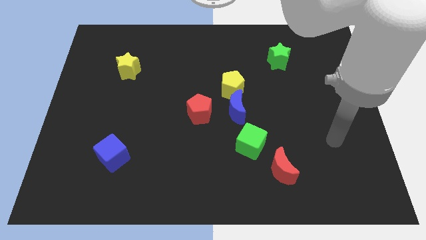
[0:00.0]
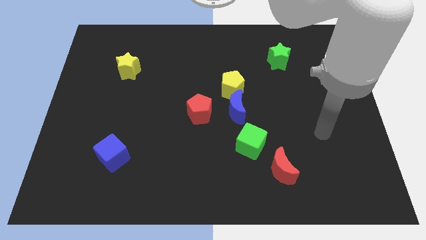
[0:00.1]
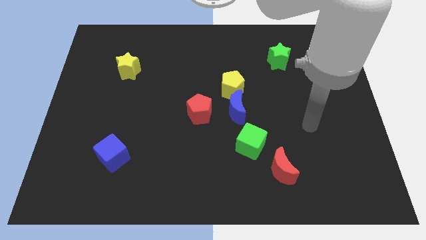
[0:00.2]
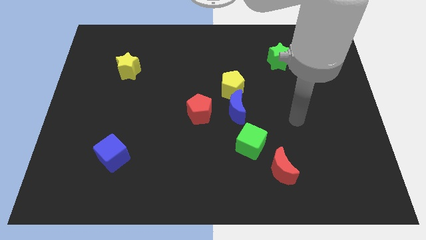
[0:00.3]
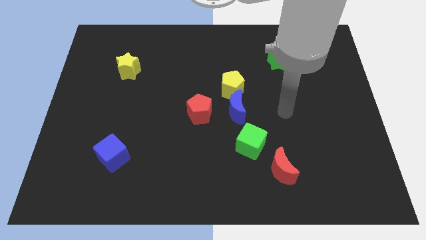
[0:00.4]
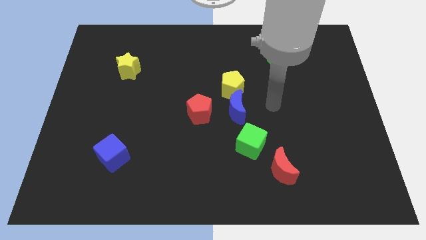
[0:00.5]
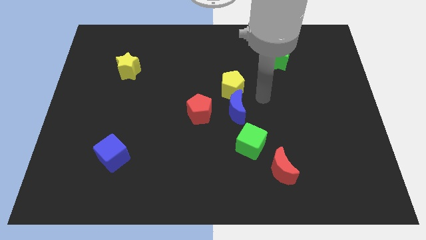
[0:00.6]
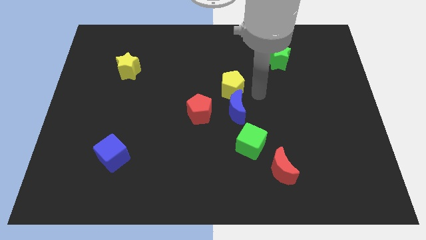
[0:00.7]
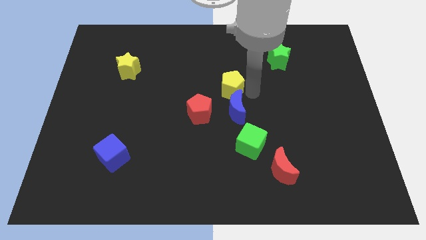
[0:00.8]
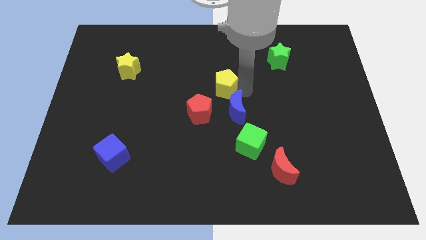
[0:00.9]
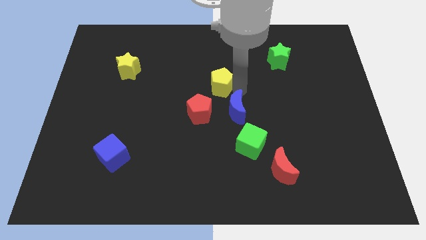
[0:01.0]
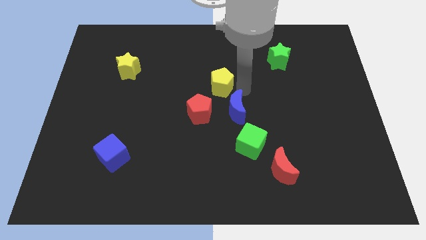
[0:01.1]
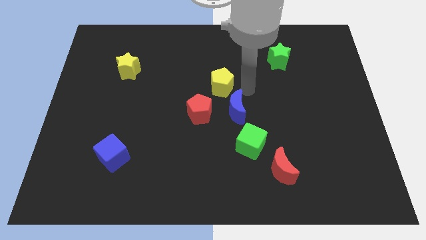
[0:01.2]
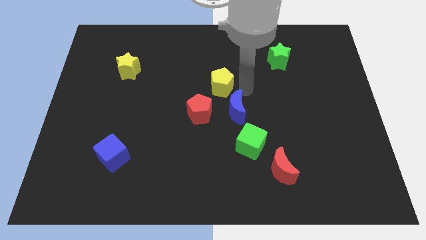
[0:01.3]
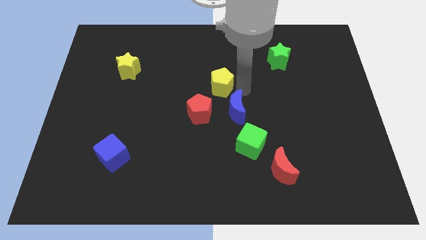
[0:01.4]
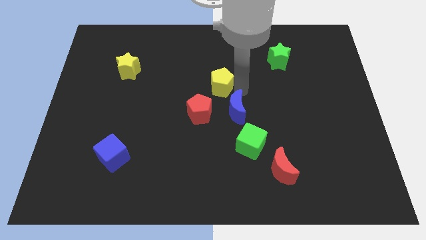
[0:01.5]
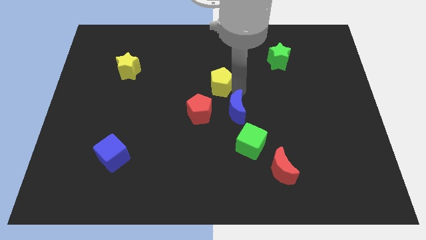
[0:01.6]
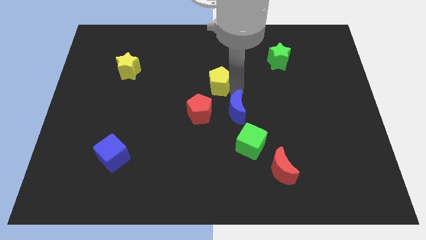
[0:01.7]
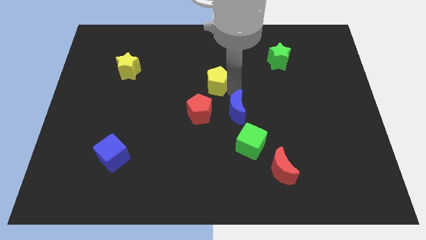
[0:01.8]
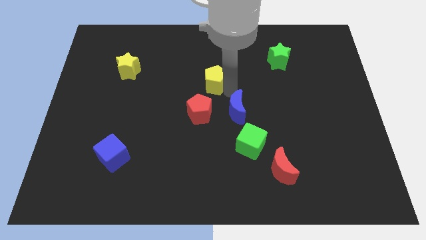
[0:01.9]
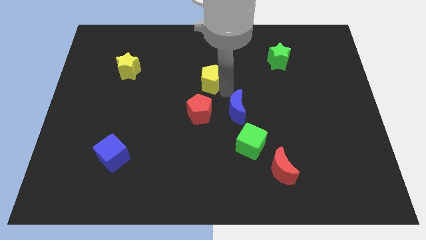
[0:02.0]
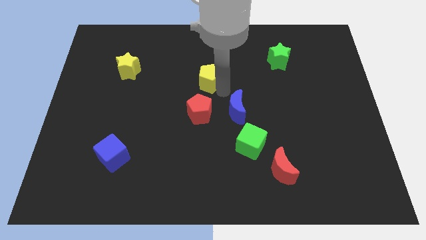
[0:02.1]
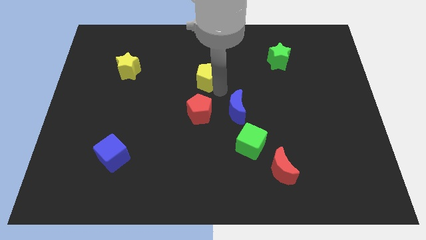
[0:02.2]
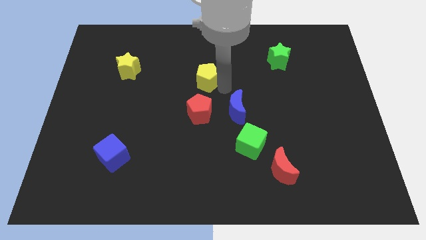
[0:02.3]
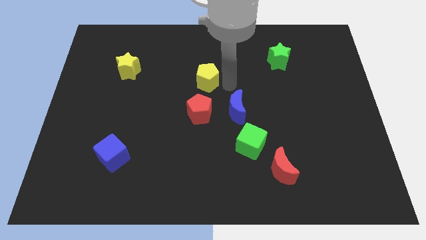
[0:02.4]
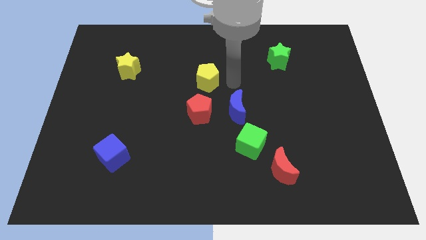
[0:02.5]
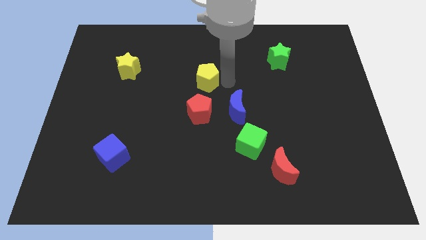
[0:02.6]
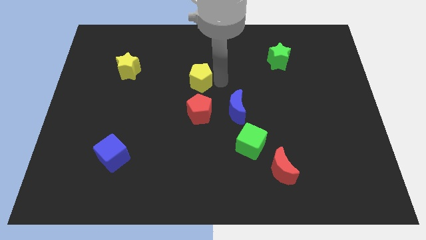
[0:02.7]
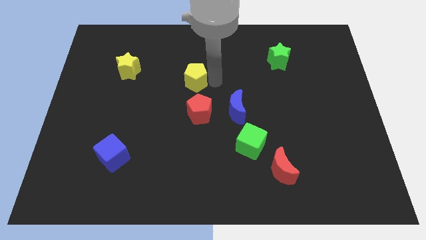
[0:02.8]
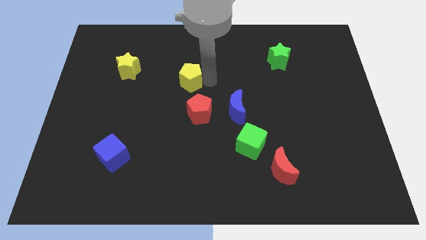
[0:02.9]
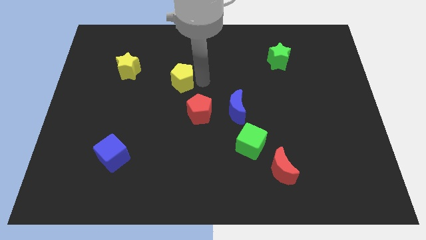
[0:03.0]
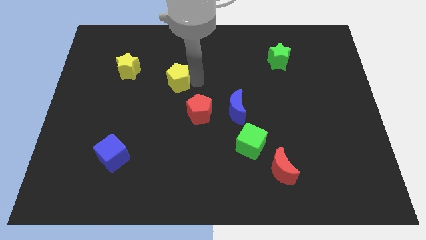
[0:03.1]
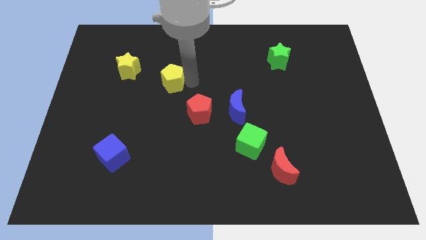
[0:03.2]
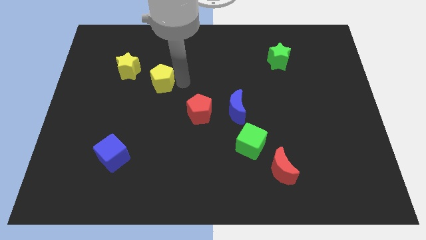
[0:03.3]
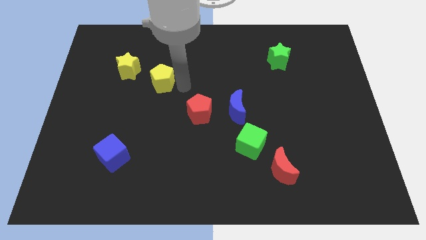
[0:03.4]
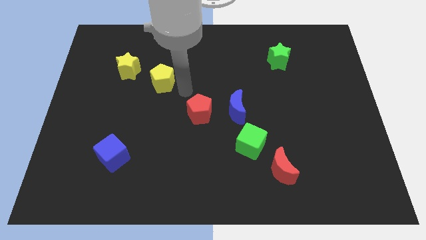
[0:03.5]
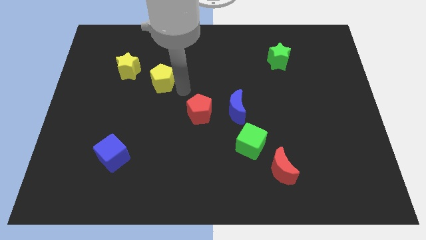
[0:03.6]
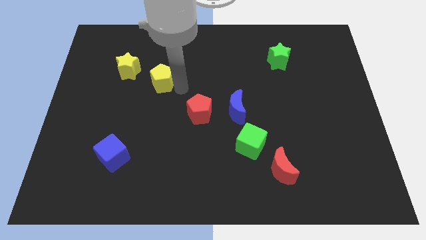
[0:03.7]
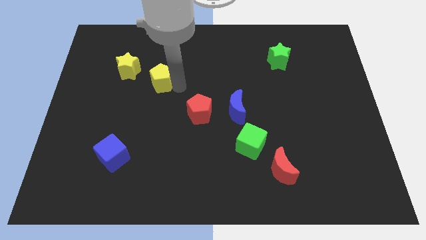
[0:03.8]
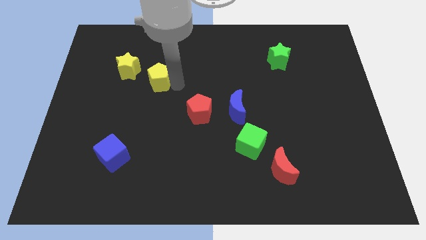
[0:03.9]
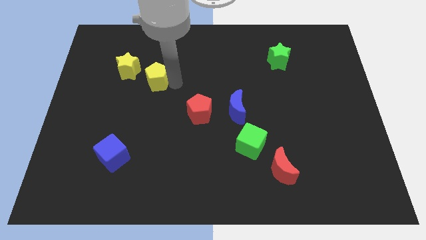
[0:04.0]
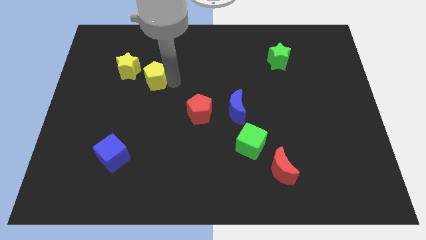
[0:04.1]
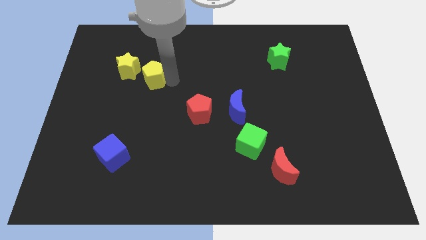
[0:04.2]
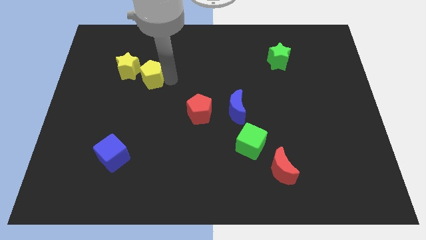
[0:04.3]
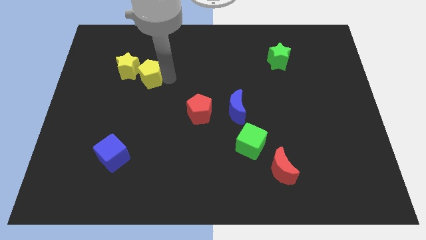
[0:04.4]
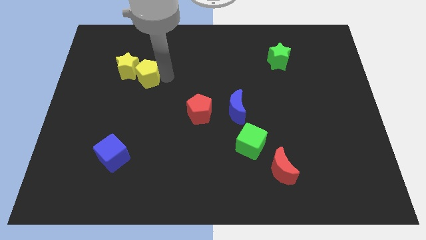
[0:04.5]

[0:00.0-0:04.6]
put the yellow pentagon towards the yellow star

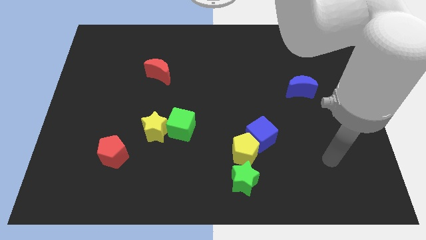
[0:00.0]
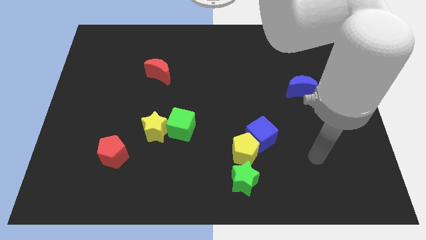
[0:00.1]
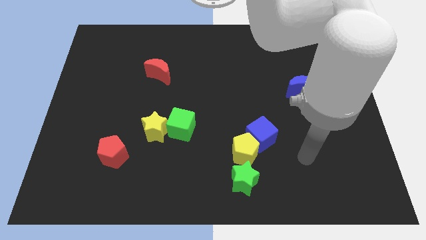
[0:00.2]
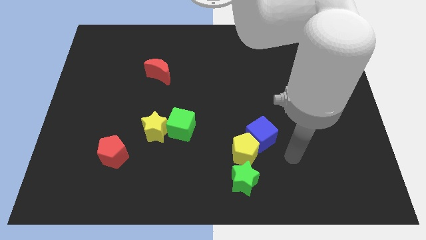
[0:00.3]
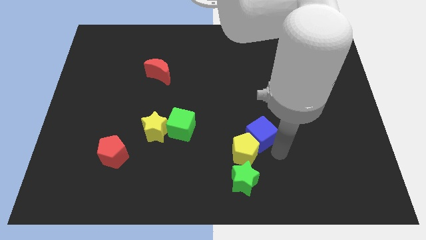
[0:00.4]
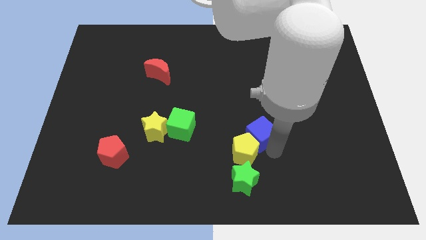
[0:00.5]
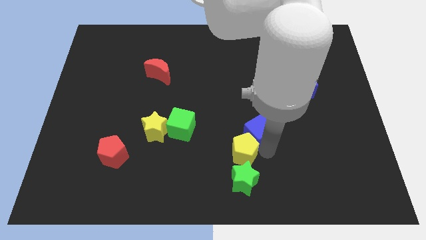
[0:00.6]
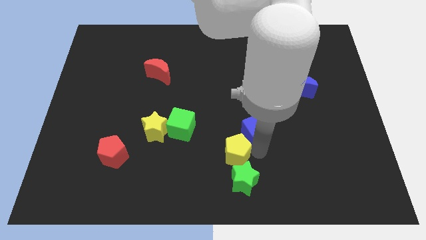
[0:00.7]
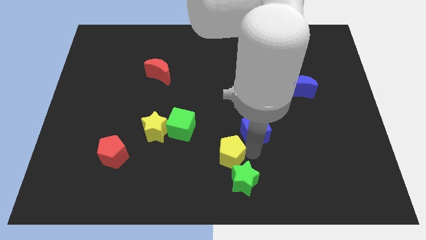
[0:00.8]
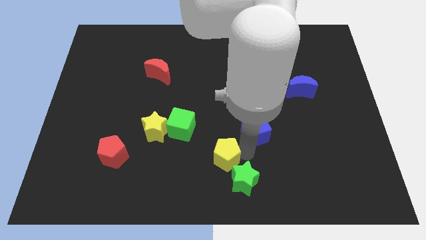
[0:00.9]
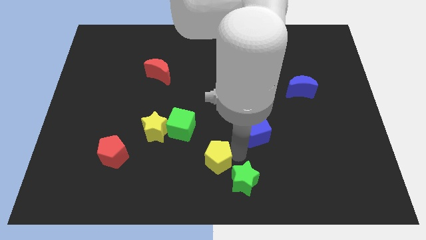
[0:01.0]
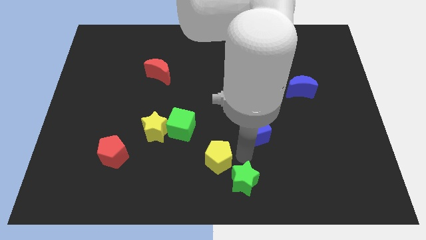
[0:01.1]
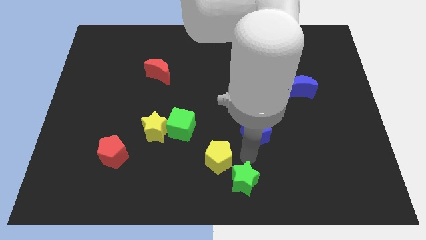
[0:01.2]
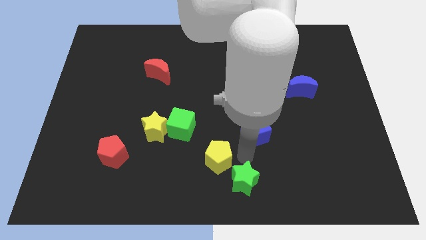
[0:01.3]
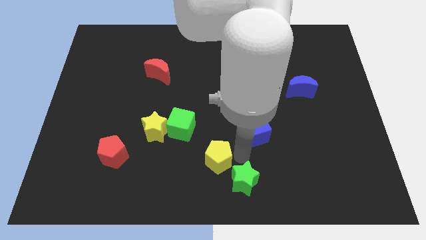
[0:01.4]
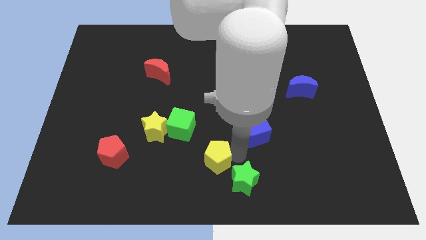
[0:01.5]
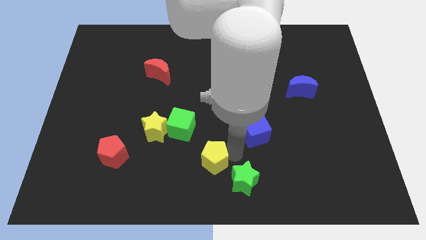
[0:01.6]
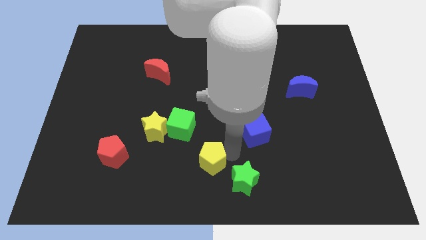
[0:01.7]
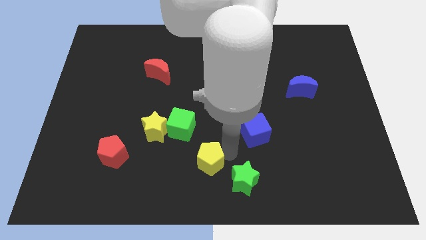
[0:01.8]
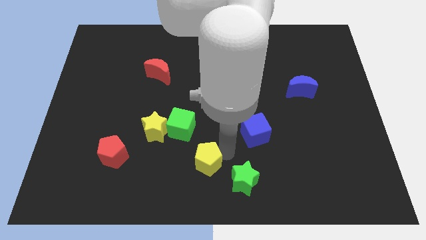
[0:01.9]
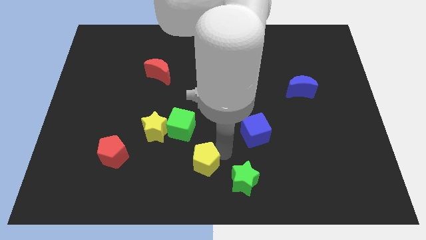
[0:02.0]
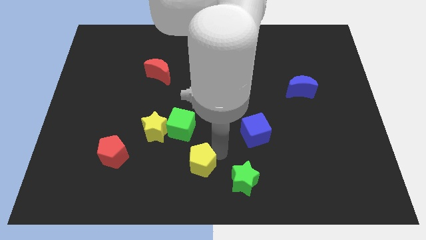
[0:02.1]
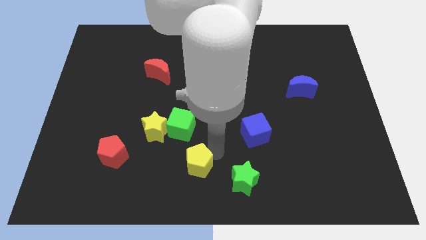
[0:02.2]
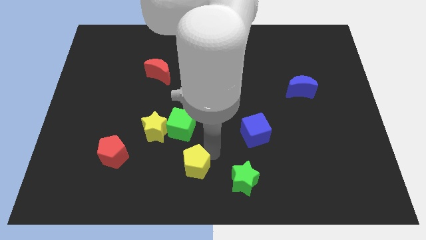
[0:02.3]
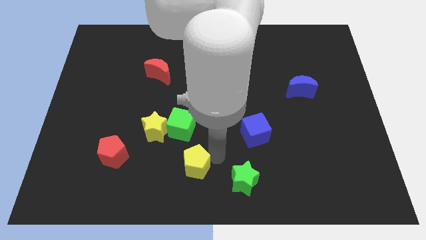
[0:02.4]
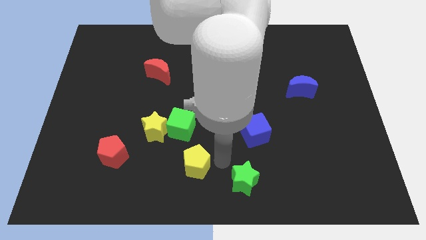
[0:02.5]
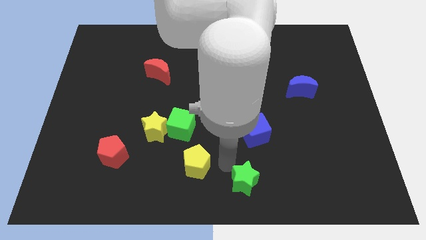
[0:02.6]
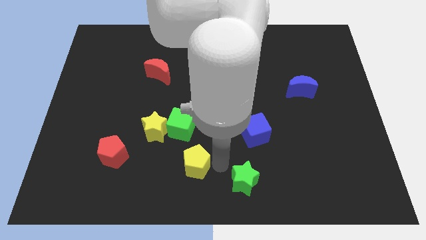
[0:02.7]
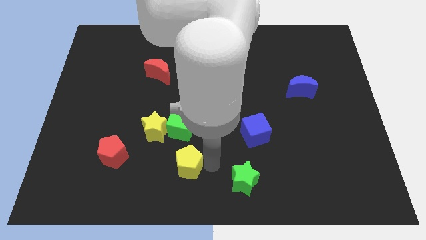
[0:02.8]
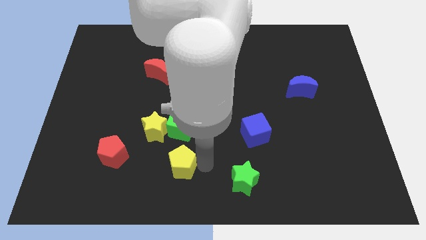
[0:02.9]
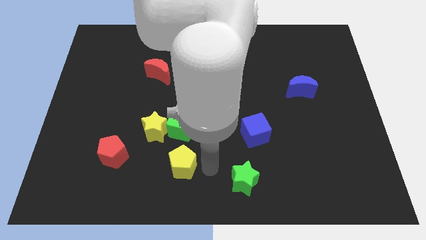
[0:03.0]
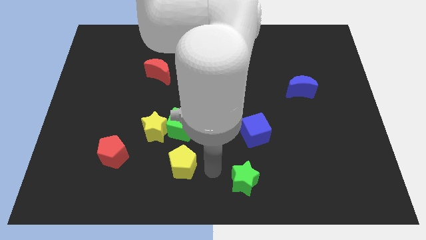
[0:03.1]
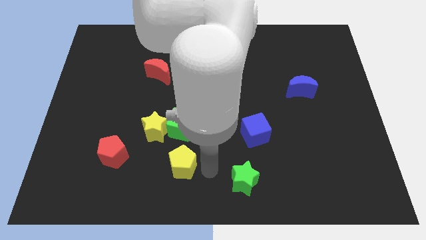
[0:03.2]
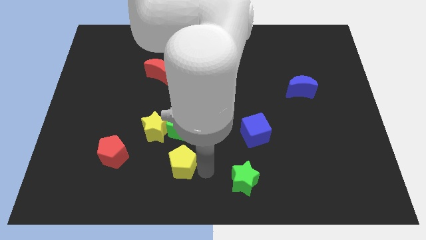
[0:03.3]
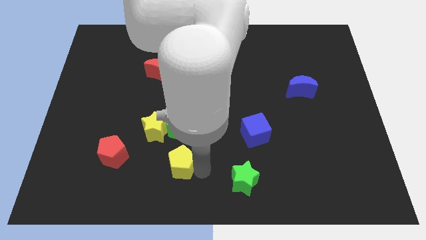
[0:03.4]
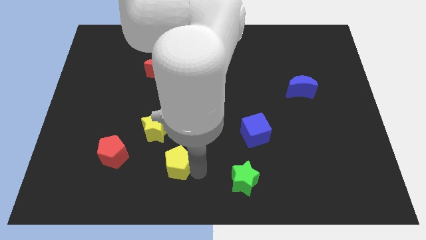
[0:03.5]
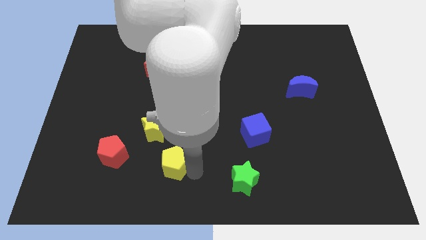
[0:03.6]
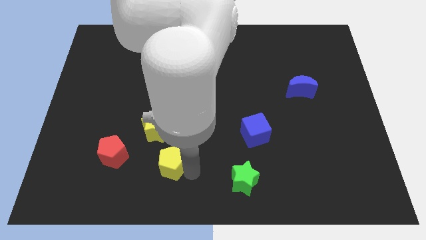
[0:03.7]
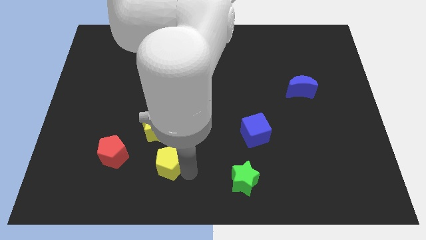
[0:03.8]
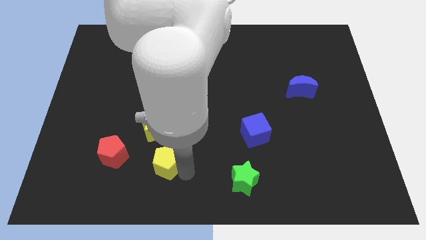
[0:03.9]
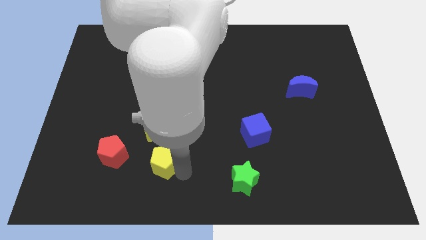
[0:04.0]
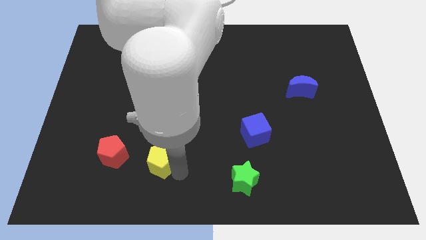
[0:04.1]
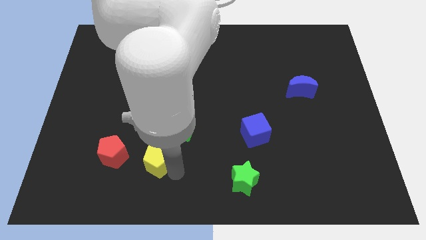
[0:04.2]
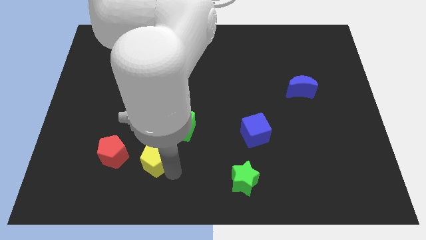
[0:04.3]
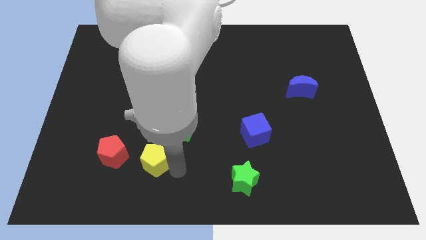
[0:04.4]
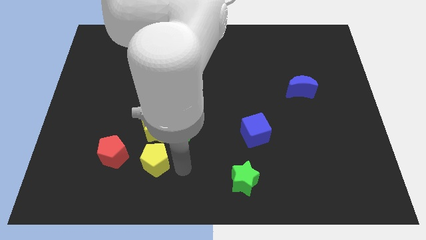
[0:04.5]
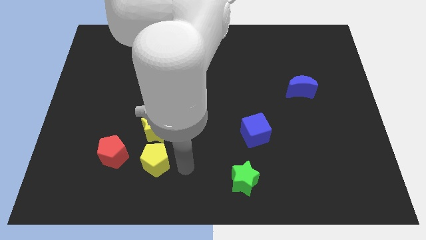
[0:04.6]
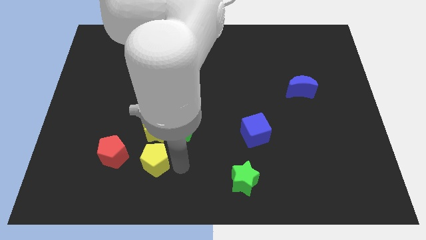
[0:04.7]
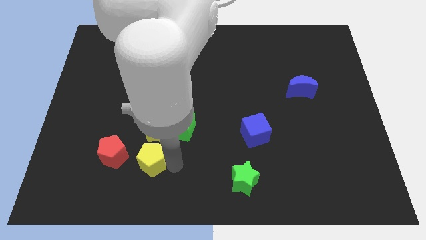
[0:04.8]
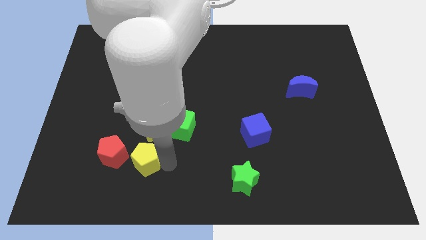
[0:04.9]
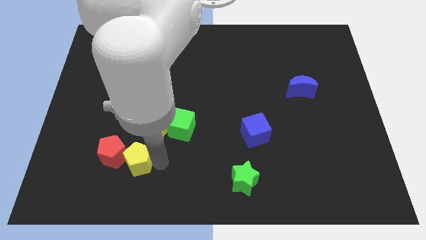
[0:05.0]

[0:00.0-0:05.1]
slide the yellow pentagon close to the red pentagon
